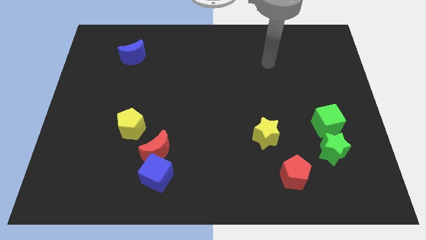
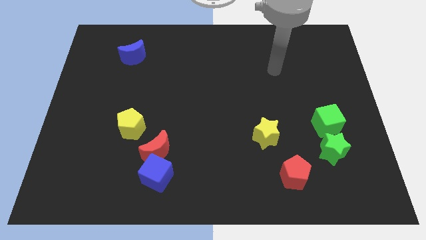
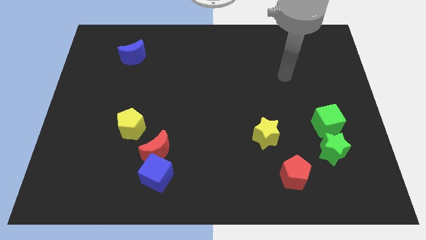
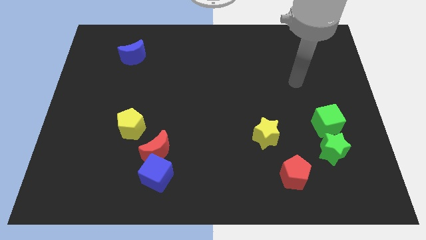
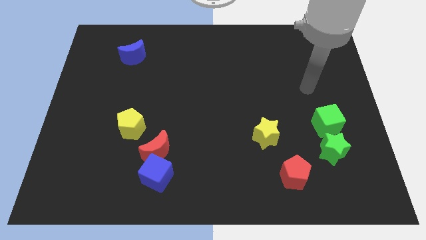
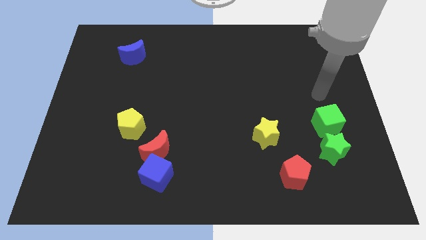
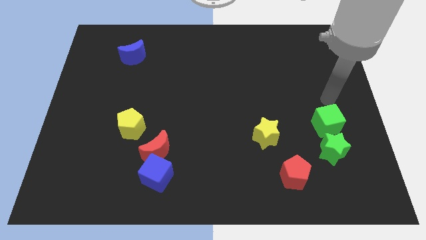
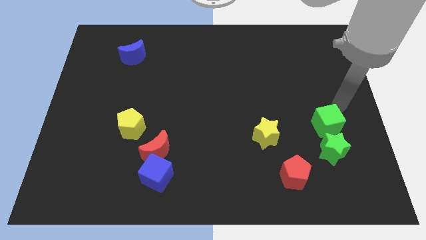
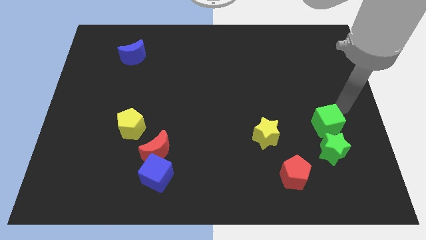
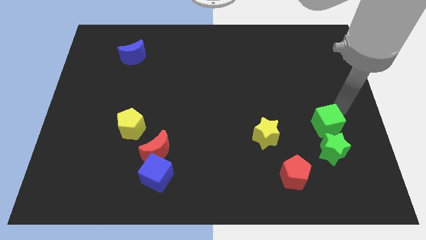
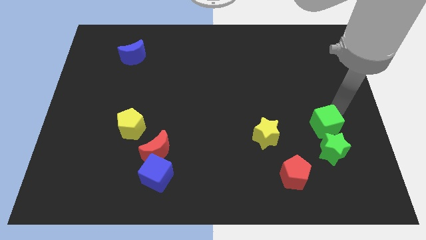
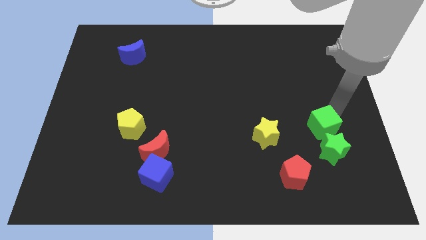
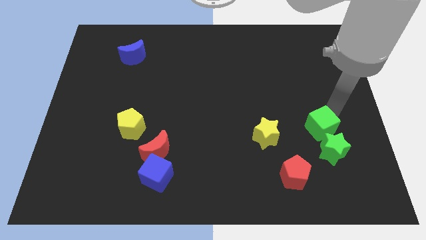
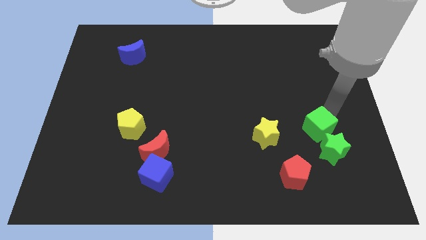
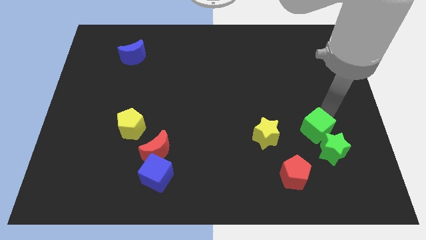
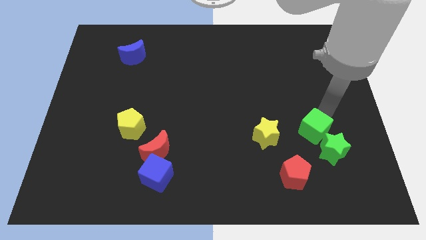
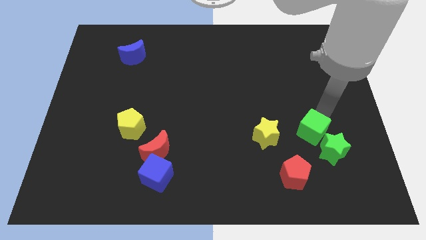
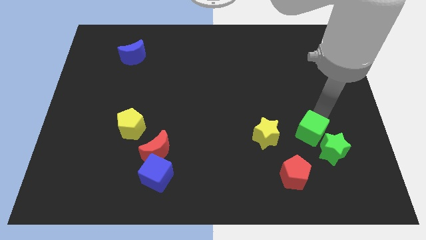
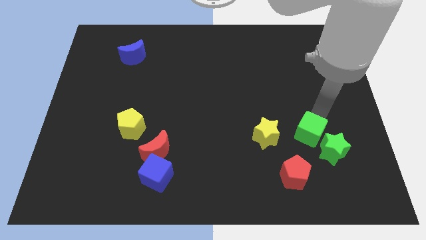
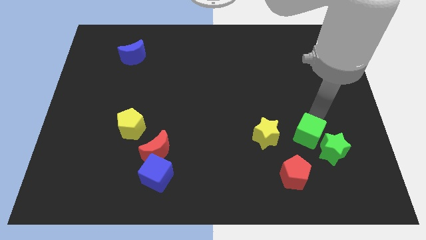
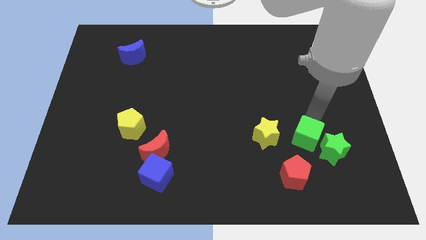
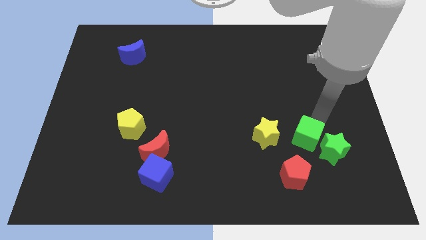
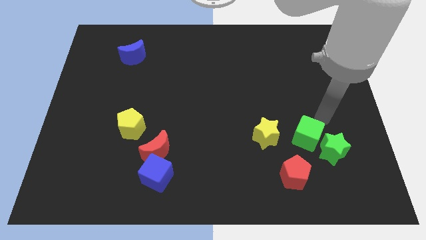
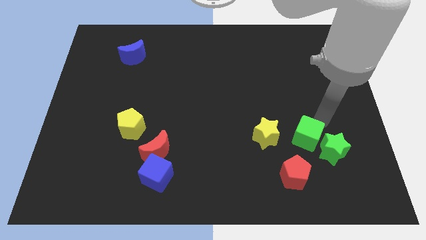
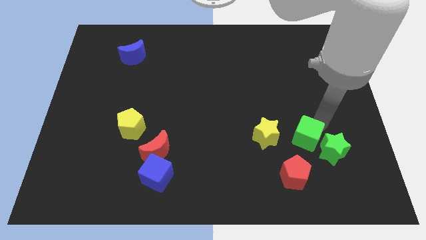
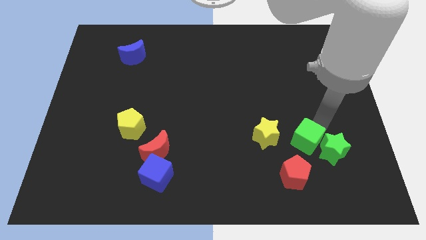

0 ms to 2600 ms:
slide the green cube slightly diagonally down and left

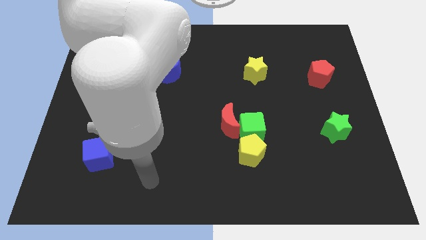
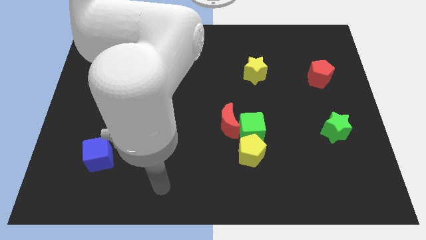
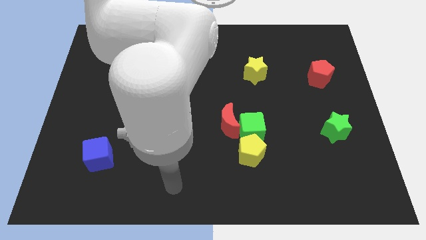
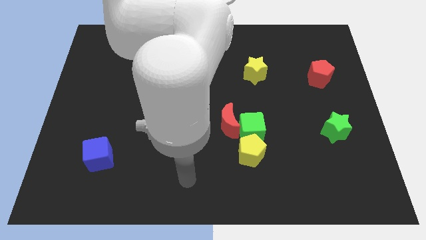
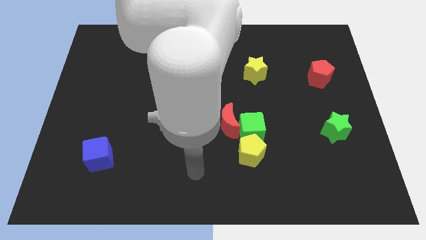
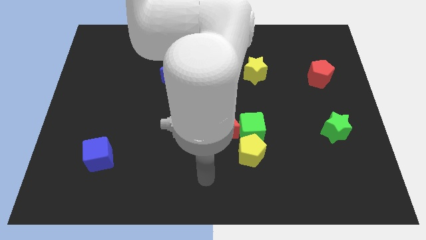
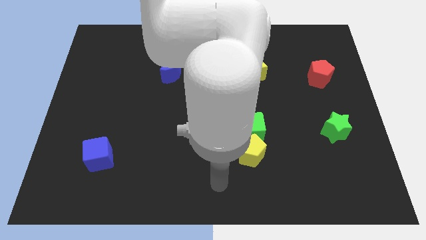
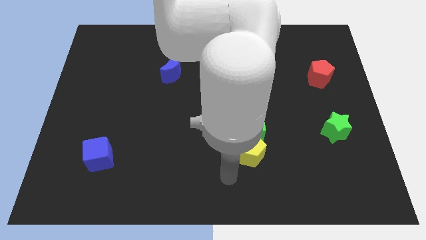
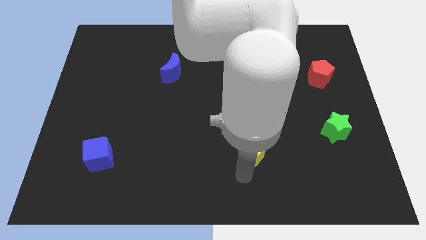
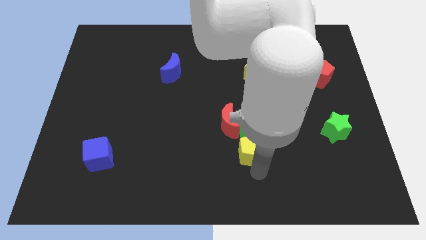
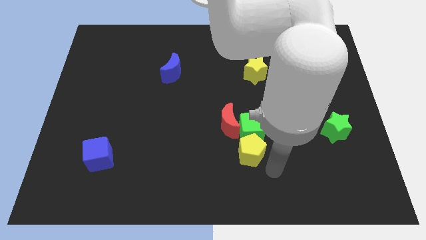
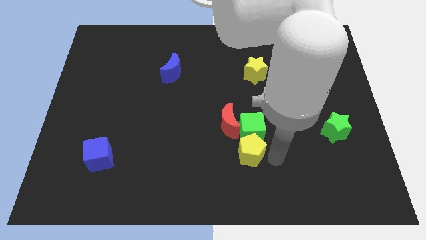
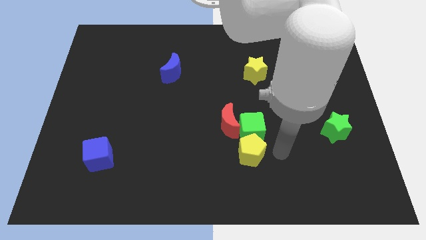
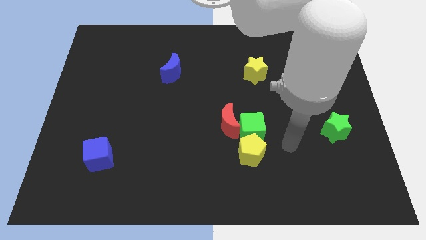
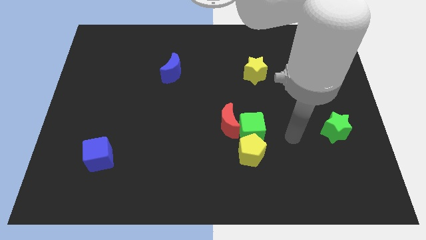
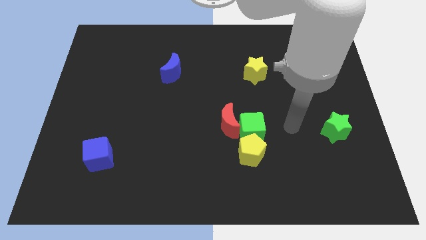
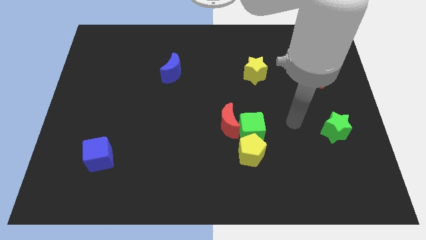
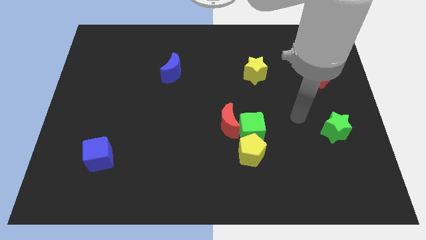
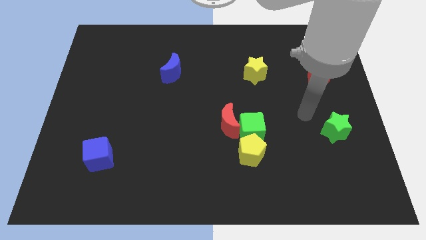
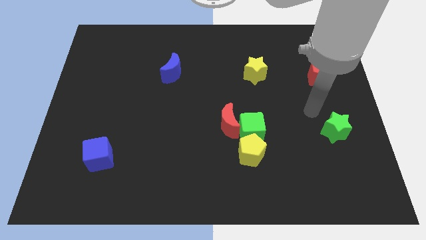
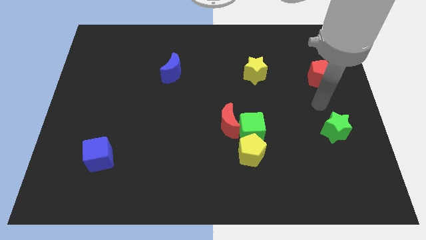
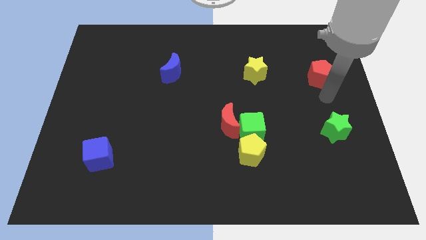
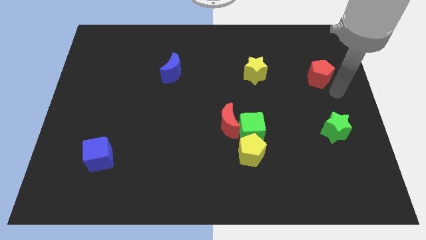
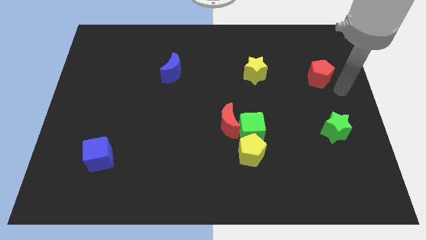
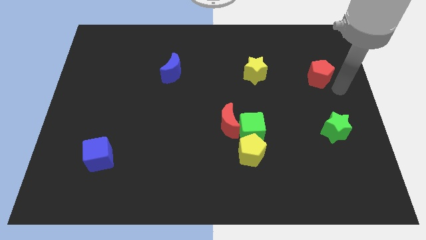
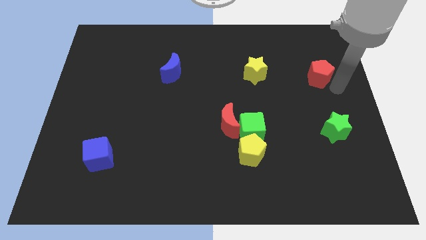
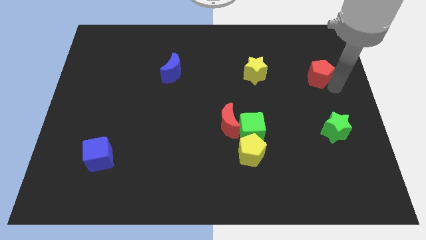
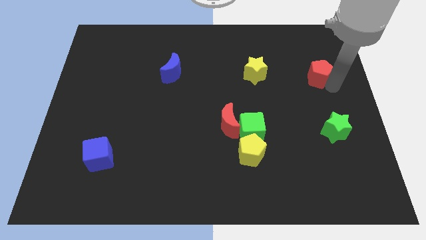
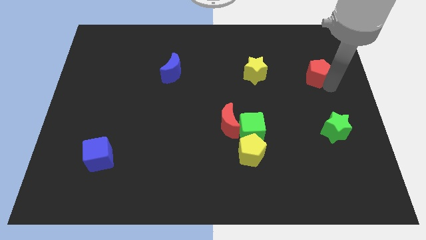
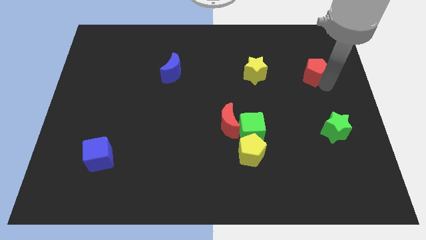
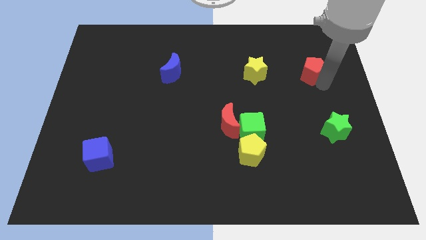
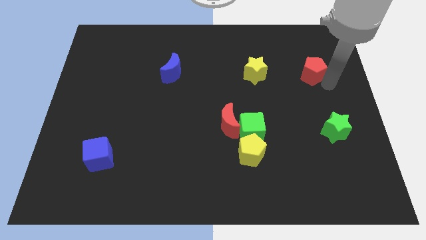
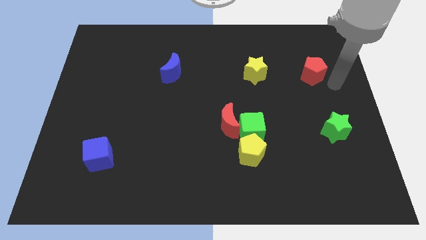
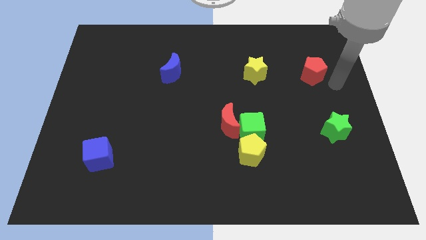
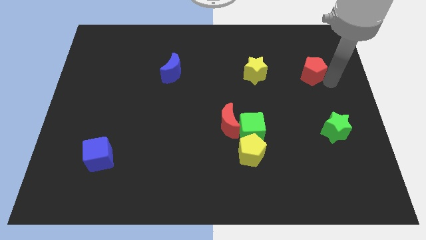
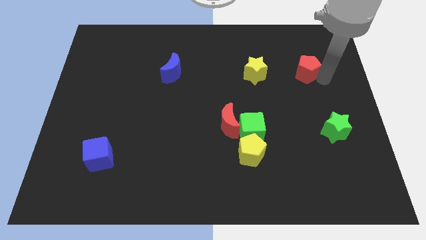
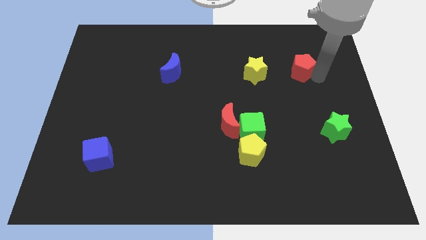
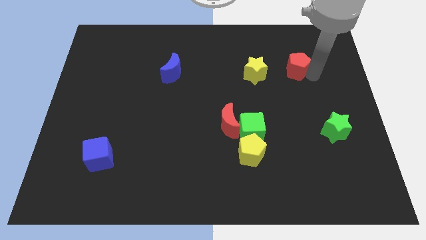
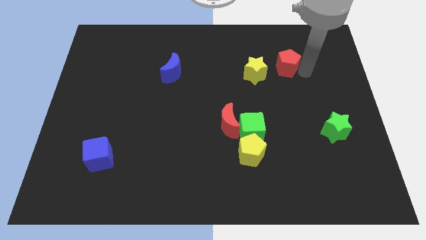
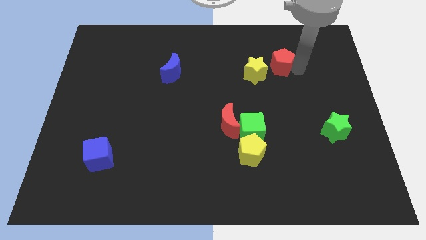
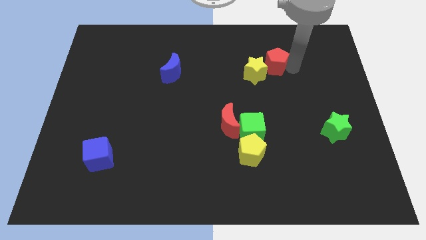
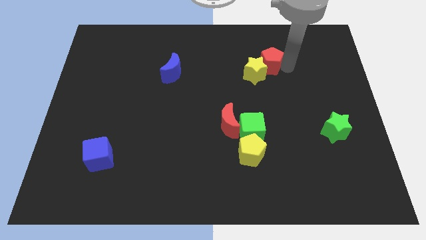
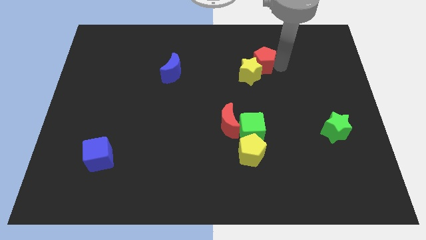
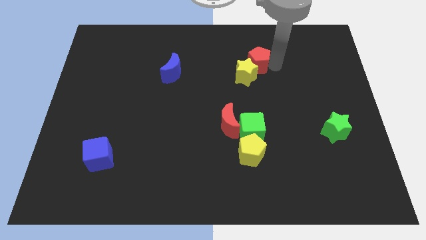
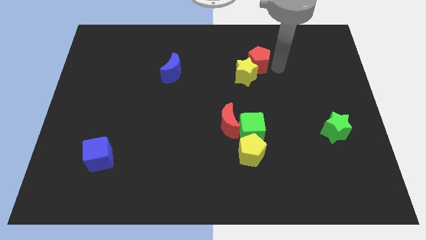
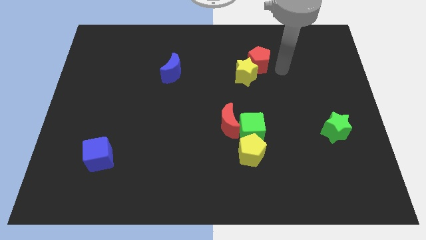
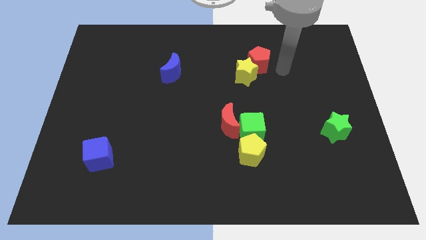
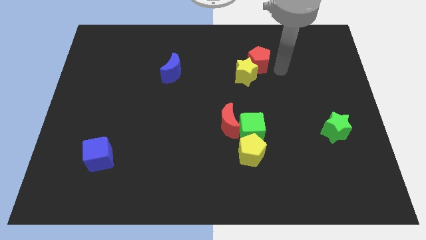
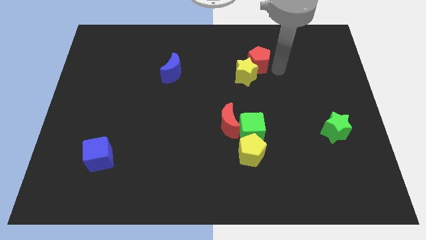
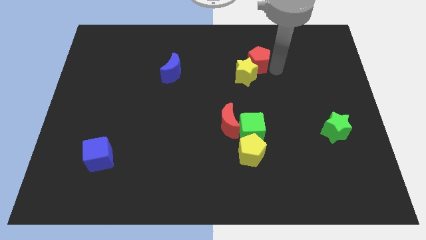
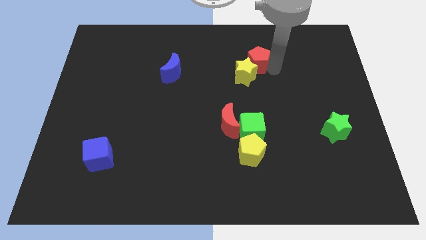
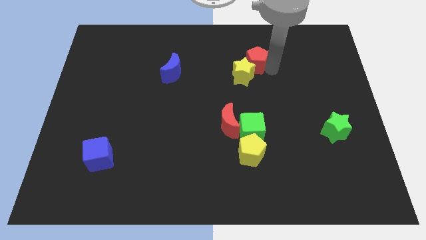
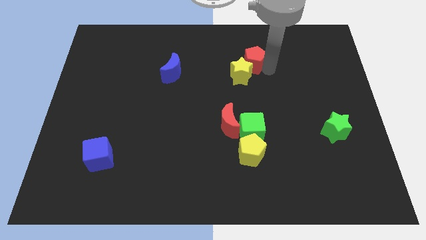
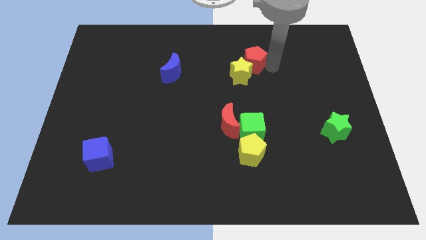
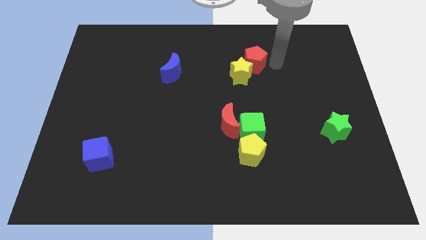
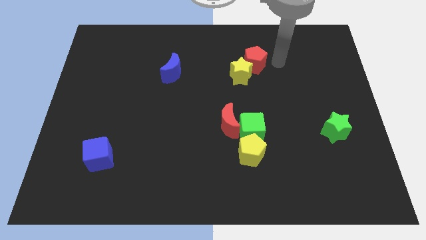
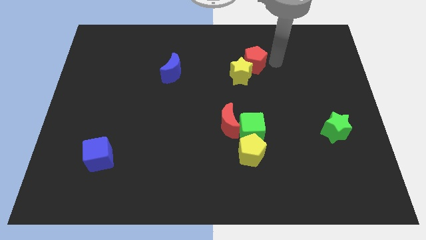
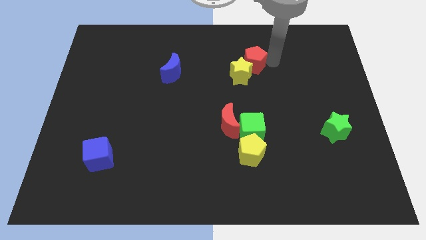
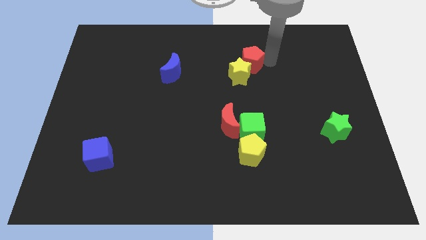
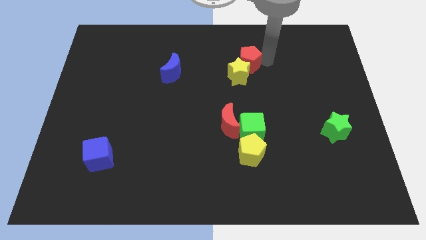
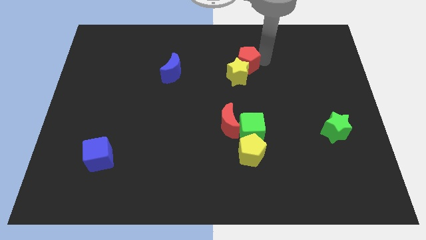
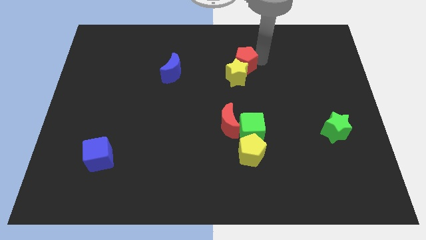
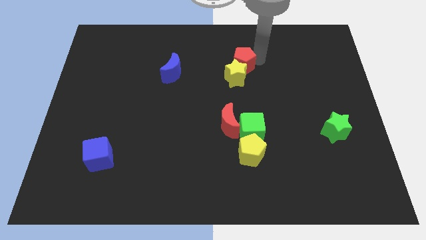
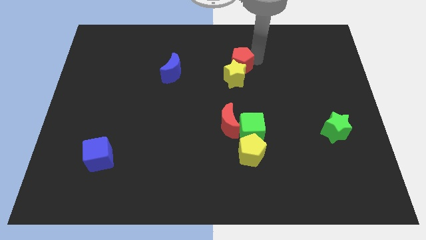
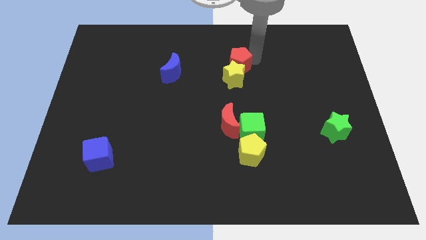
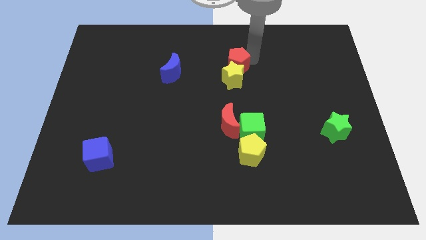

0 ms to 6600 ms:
move the red pentagon left
